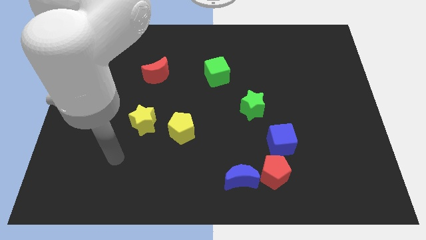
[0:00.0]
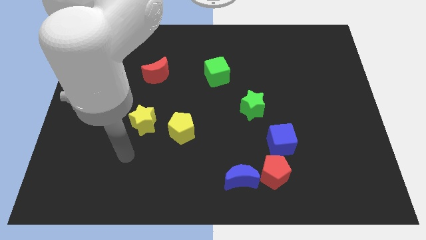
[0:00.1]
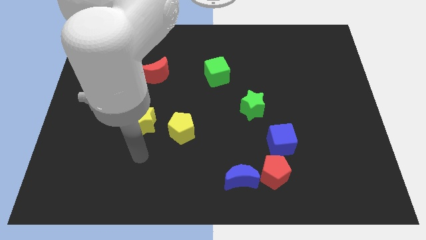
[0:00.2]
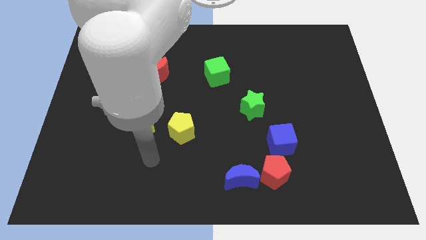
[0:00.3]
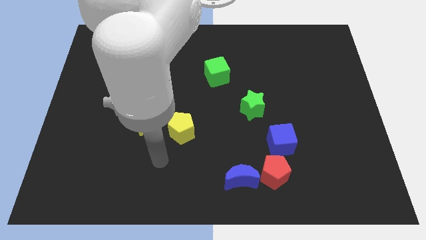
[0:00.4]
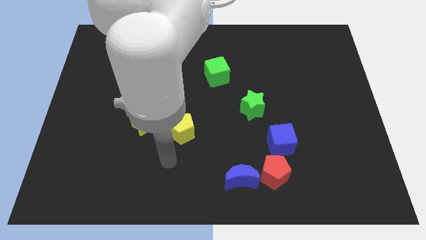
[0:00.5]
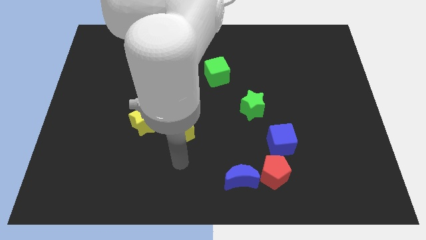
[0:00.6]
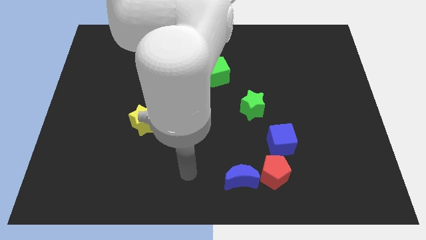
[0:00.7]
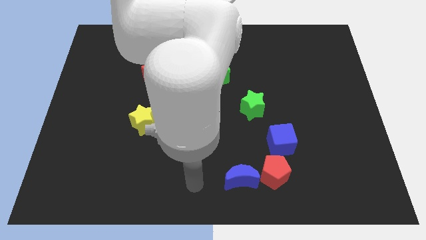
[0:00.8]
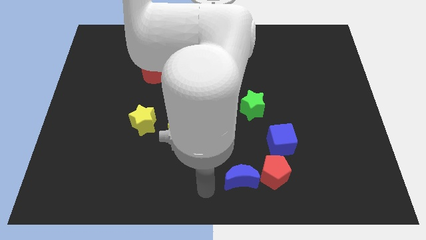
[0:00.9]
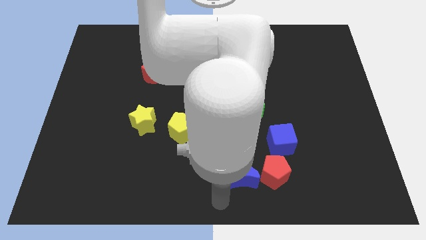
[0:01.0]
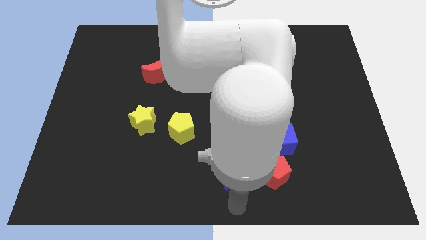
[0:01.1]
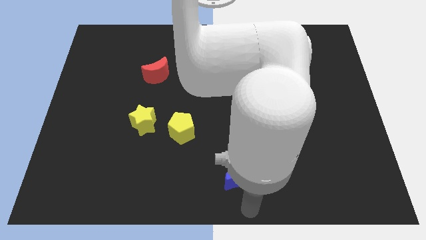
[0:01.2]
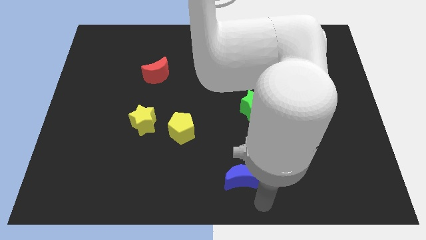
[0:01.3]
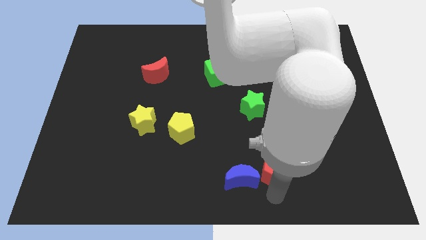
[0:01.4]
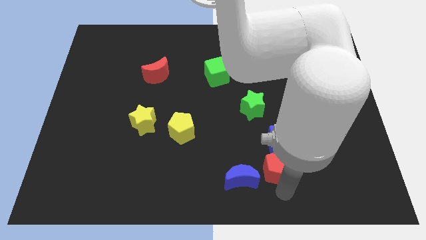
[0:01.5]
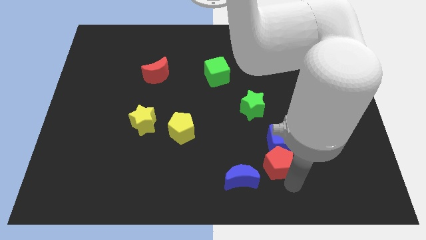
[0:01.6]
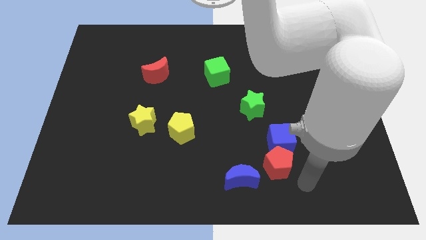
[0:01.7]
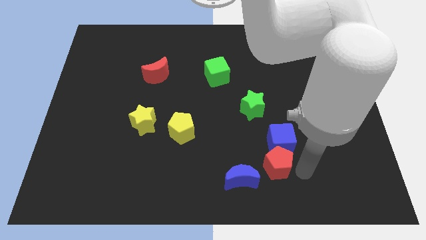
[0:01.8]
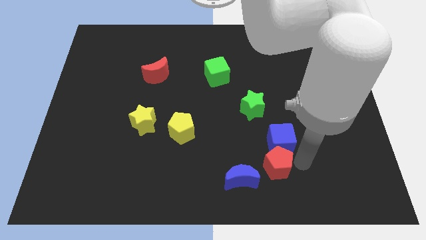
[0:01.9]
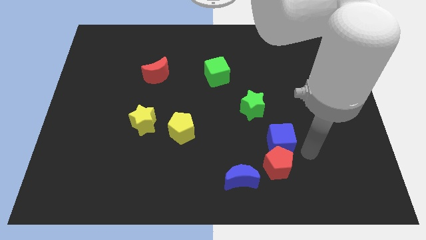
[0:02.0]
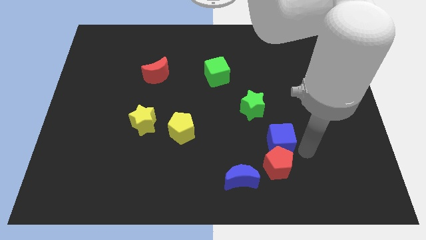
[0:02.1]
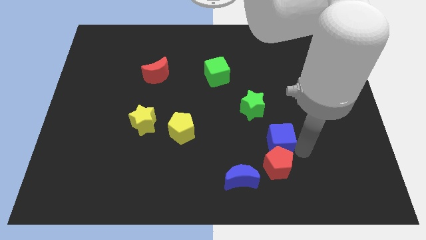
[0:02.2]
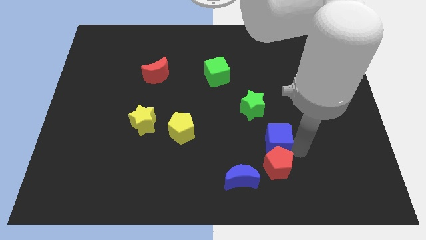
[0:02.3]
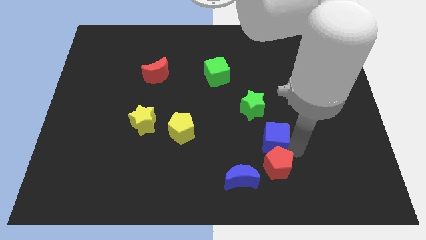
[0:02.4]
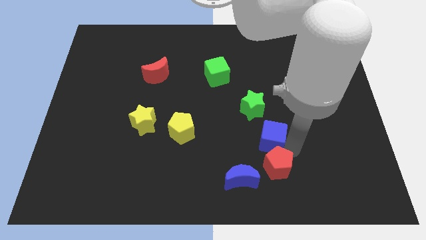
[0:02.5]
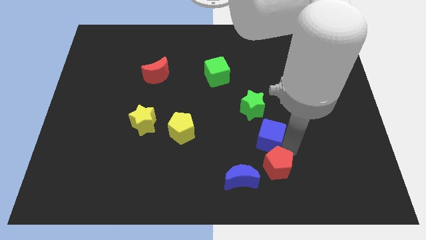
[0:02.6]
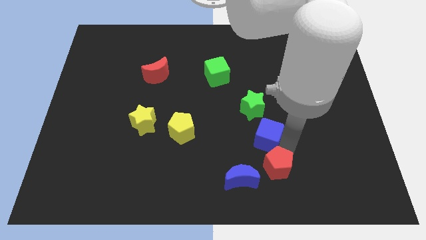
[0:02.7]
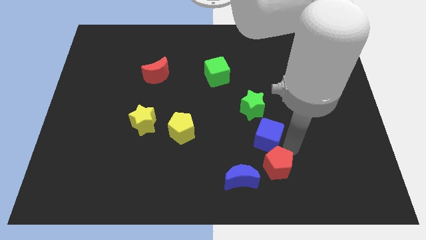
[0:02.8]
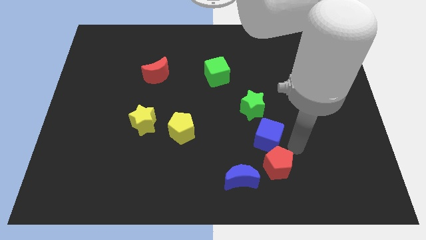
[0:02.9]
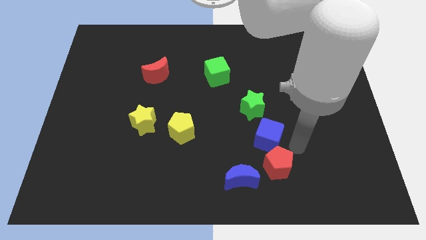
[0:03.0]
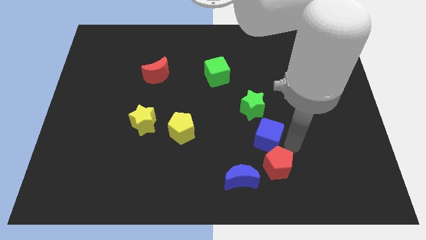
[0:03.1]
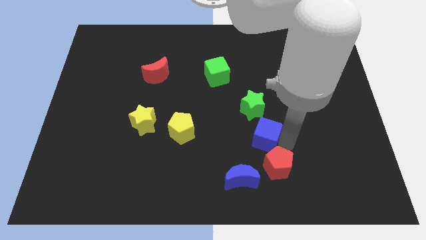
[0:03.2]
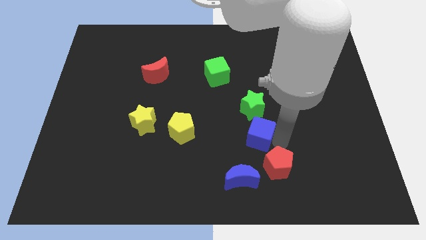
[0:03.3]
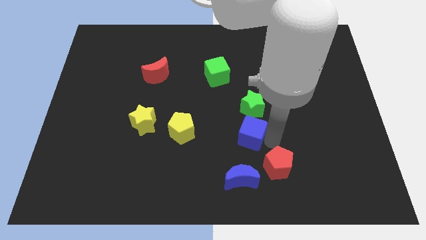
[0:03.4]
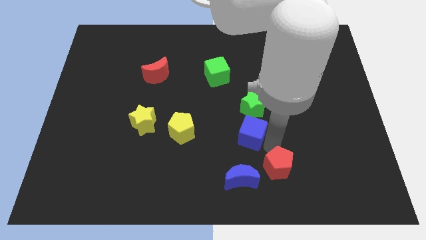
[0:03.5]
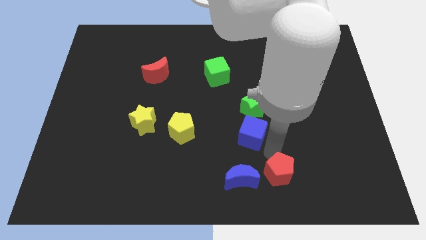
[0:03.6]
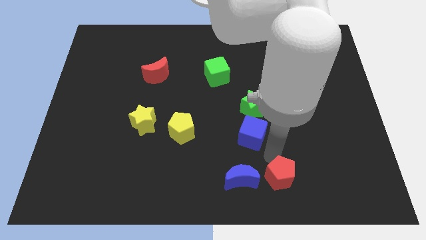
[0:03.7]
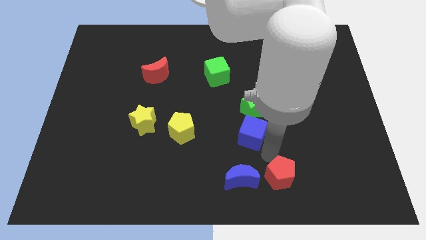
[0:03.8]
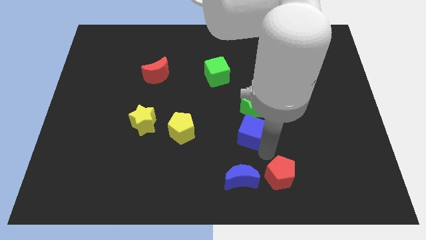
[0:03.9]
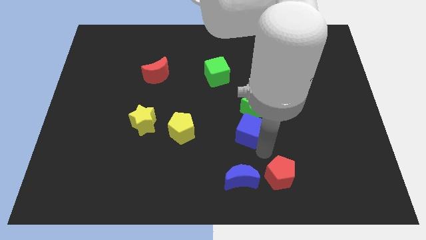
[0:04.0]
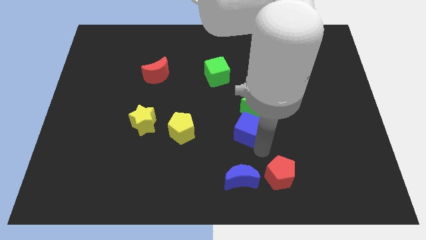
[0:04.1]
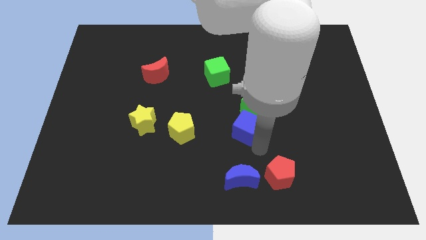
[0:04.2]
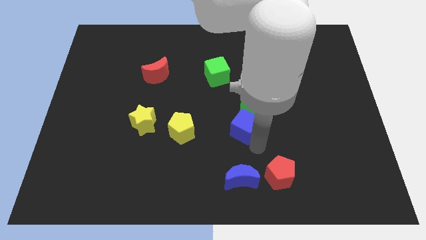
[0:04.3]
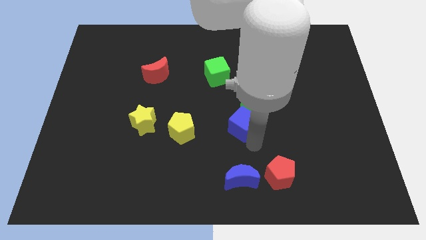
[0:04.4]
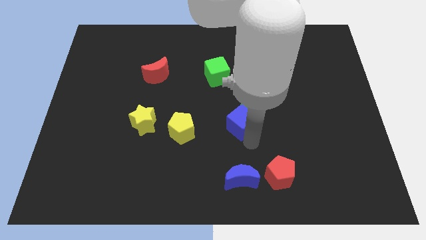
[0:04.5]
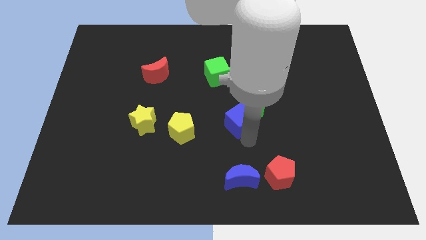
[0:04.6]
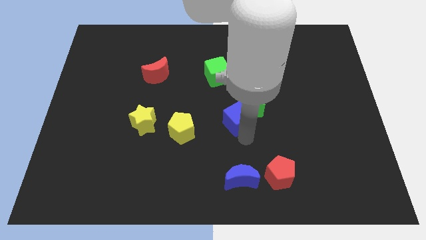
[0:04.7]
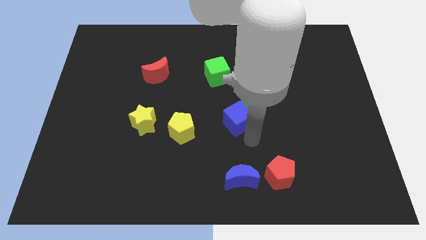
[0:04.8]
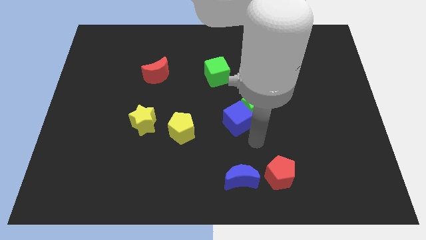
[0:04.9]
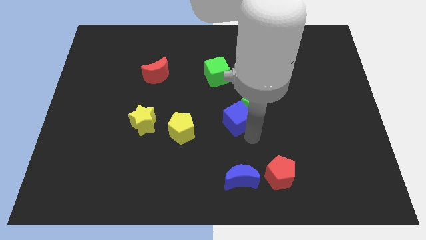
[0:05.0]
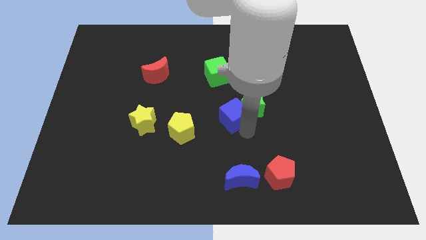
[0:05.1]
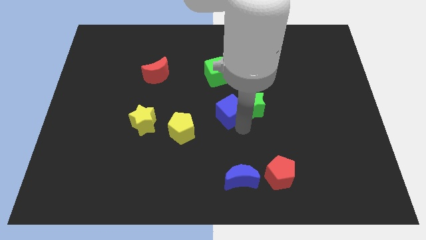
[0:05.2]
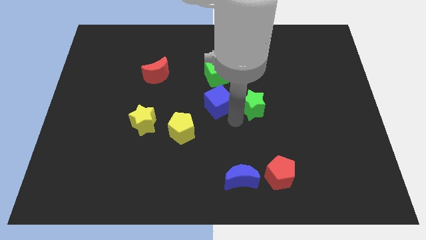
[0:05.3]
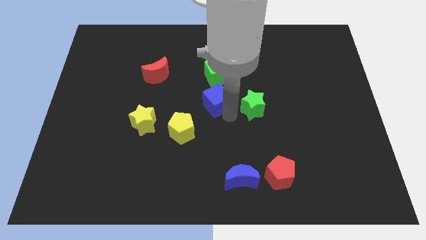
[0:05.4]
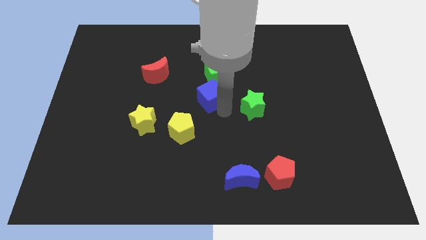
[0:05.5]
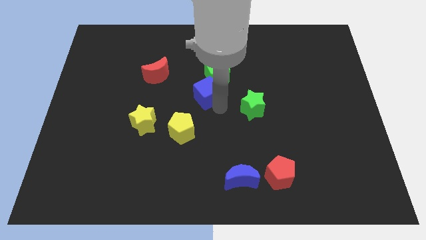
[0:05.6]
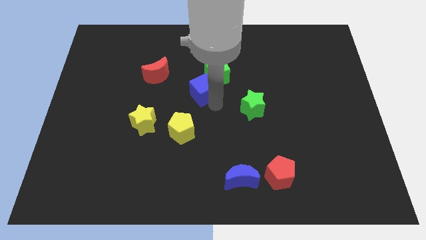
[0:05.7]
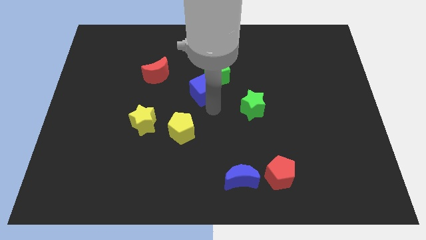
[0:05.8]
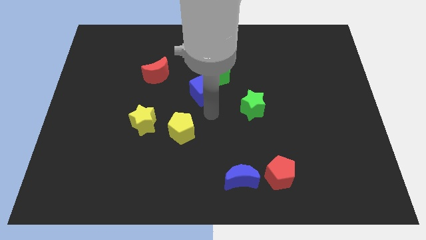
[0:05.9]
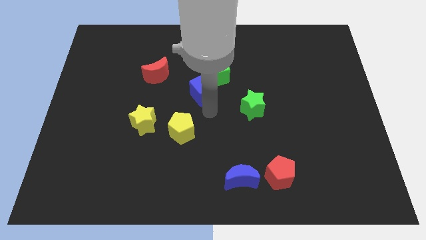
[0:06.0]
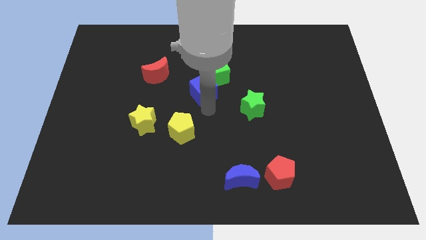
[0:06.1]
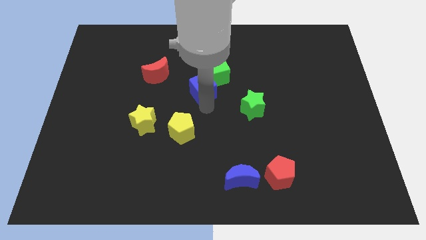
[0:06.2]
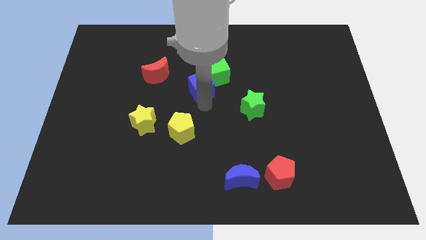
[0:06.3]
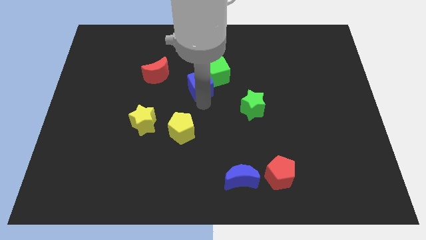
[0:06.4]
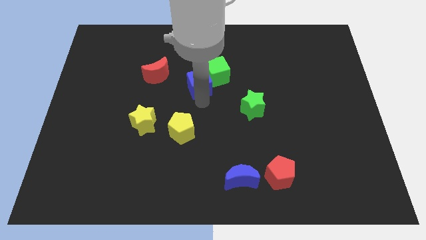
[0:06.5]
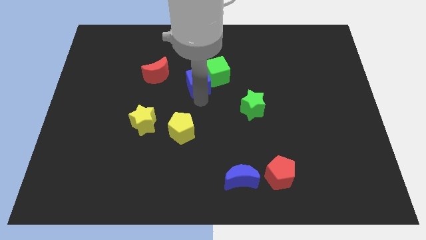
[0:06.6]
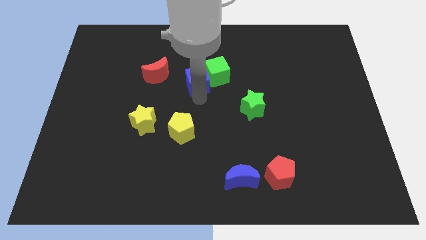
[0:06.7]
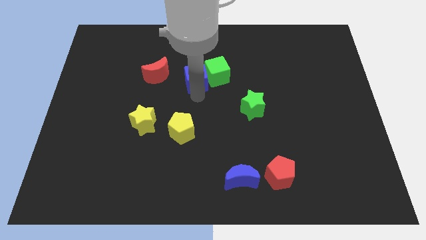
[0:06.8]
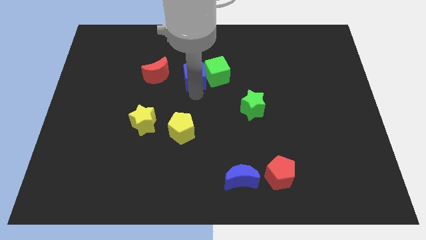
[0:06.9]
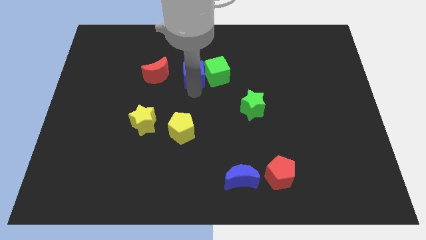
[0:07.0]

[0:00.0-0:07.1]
slide the blue cube diagonally up and to the left of the green cube
